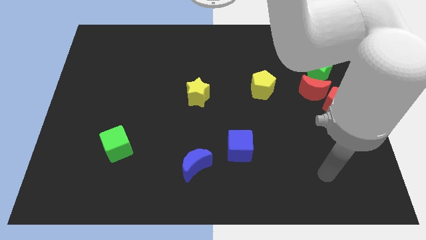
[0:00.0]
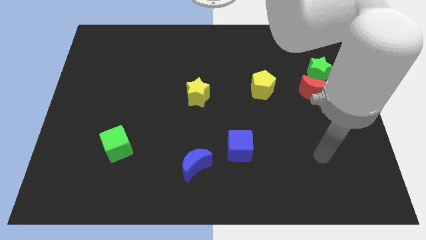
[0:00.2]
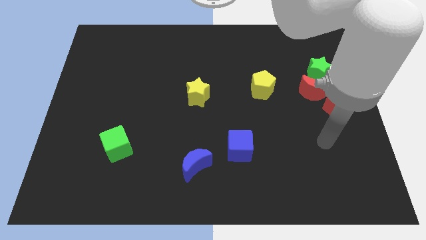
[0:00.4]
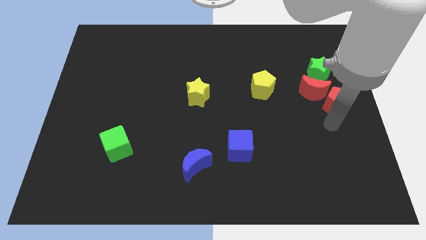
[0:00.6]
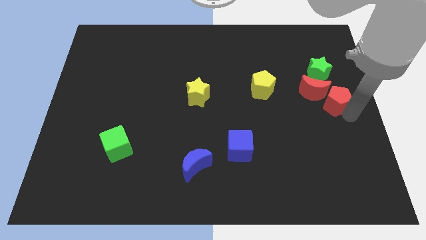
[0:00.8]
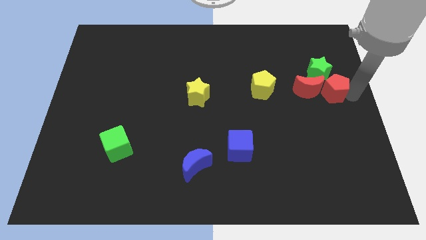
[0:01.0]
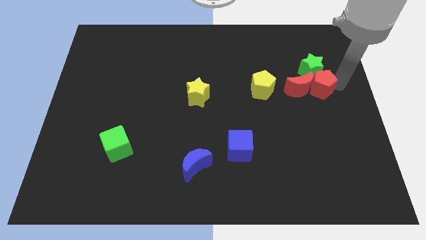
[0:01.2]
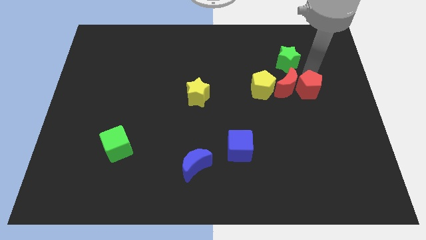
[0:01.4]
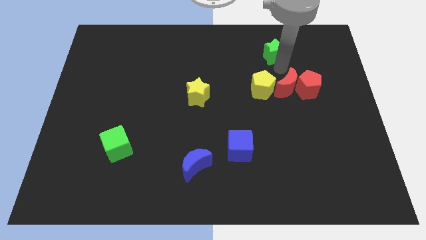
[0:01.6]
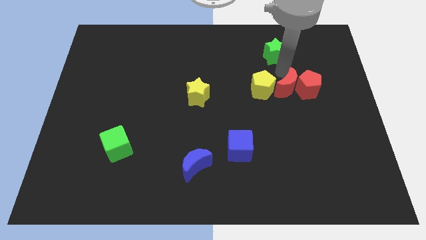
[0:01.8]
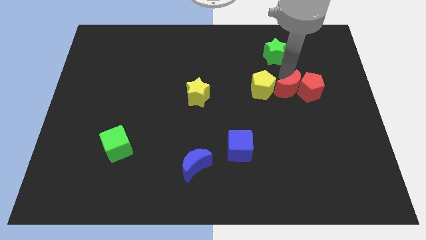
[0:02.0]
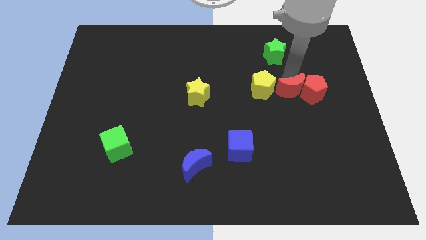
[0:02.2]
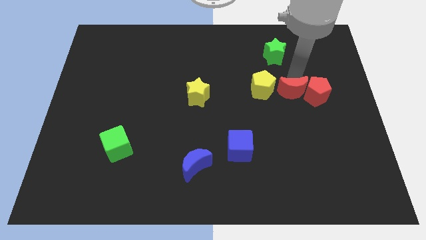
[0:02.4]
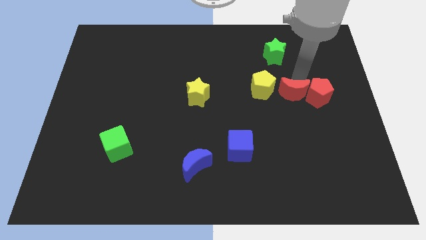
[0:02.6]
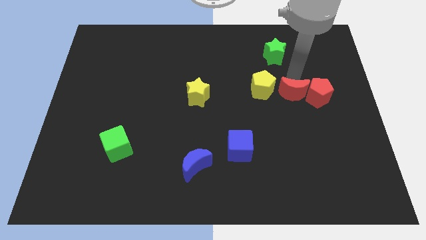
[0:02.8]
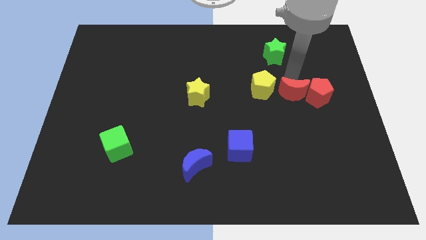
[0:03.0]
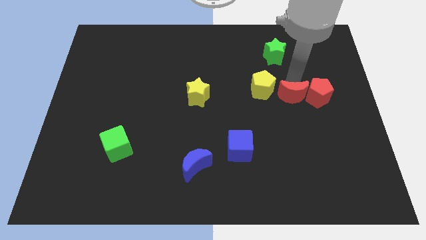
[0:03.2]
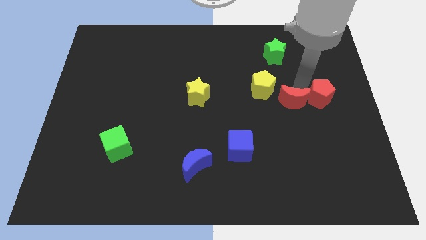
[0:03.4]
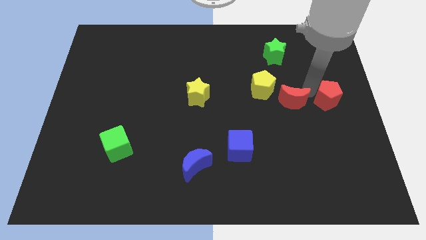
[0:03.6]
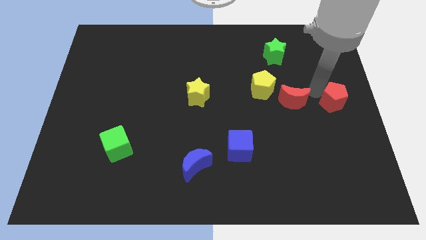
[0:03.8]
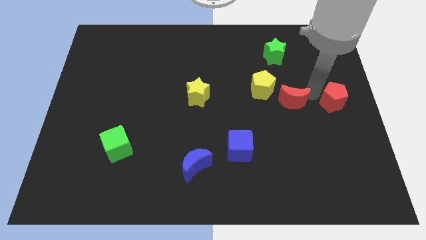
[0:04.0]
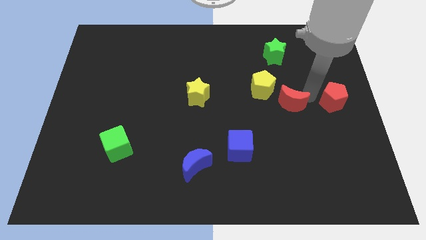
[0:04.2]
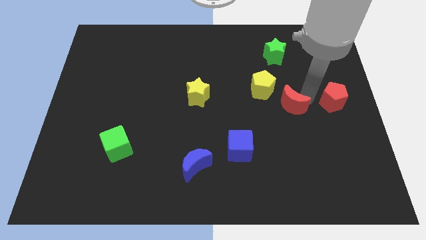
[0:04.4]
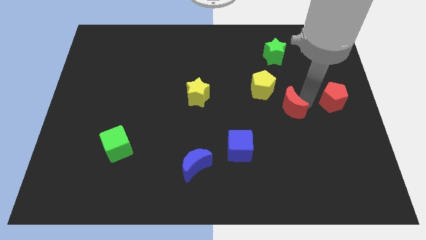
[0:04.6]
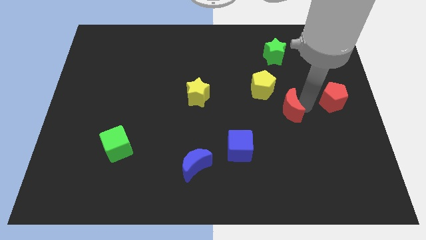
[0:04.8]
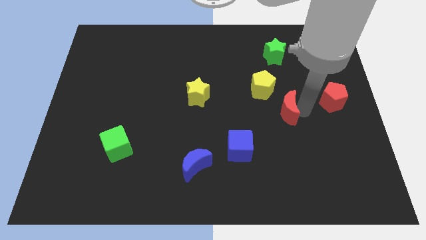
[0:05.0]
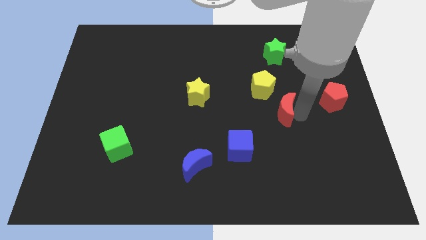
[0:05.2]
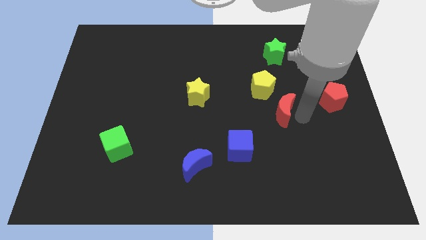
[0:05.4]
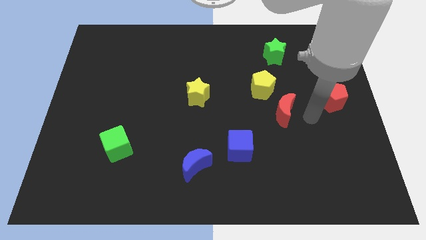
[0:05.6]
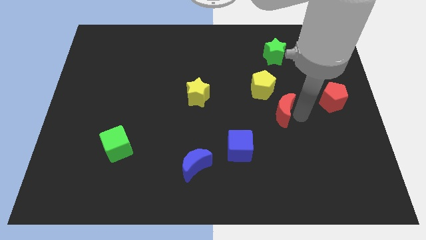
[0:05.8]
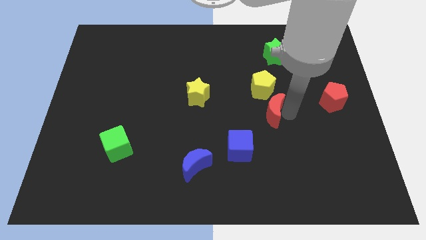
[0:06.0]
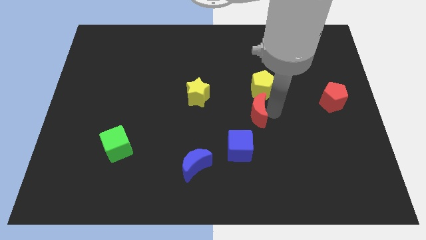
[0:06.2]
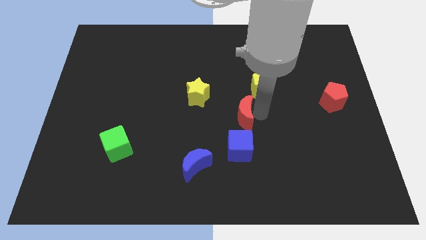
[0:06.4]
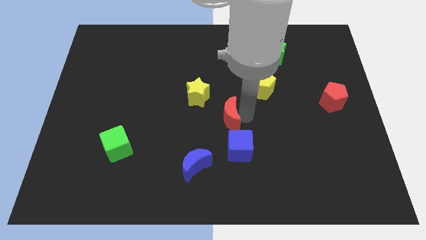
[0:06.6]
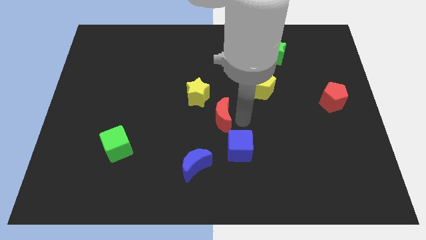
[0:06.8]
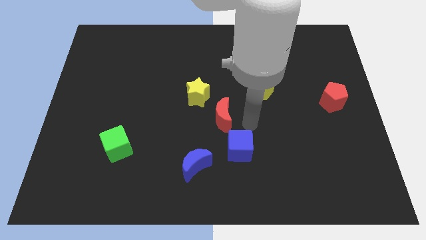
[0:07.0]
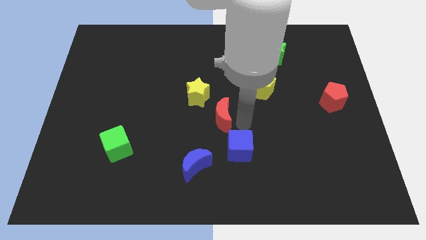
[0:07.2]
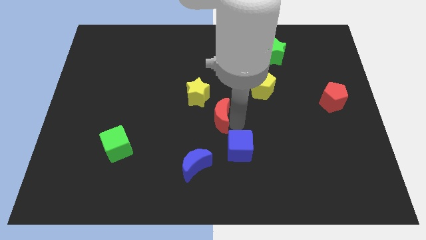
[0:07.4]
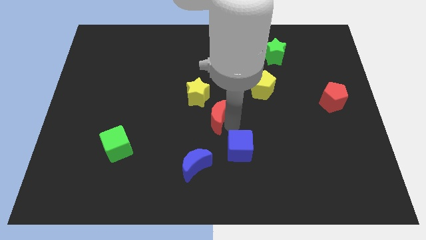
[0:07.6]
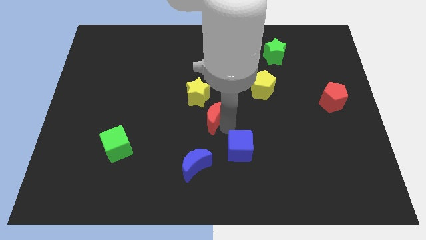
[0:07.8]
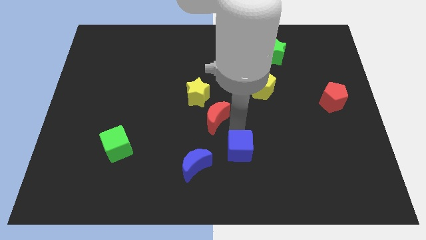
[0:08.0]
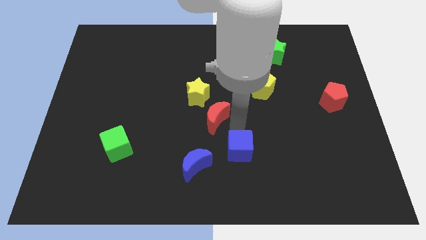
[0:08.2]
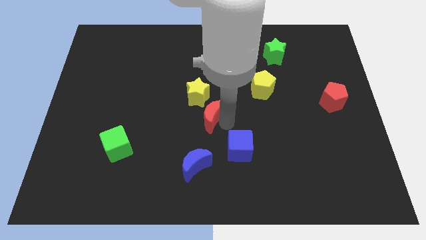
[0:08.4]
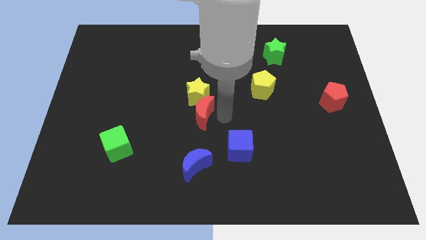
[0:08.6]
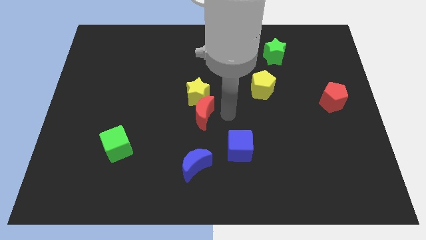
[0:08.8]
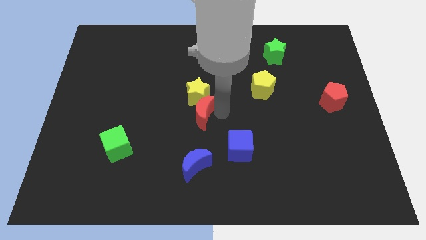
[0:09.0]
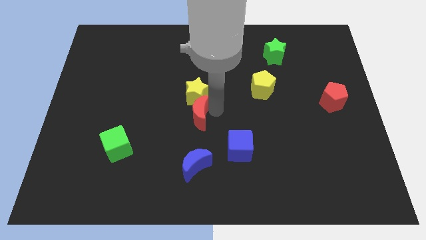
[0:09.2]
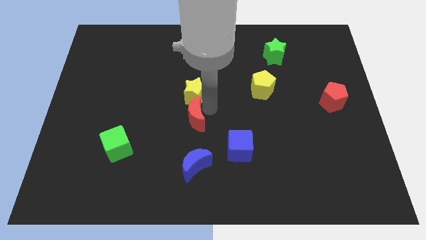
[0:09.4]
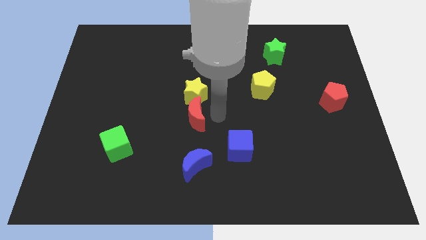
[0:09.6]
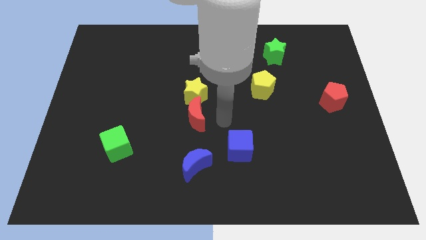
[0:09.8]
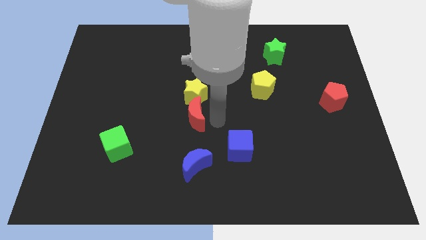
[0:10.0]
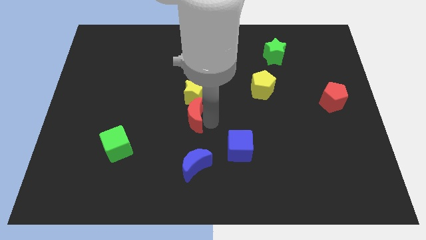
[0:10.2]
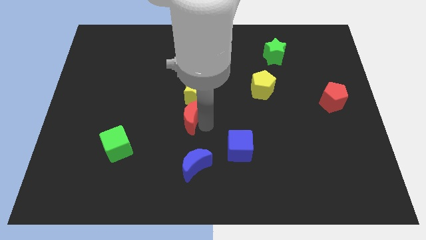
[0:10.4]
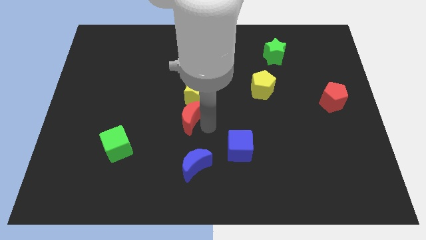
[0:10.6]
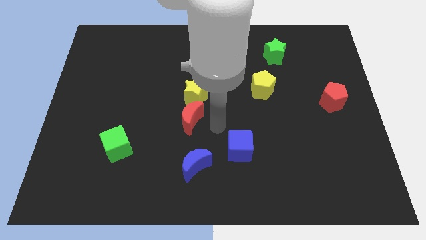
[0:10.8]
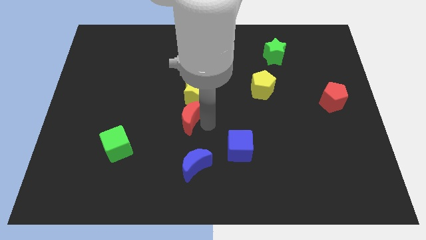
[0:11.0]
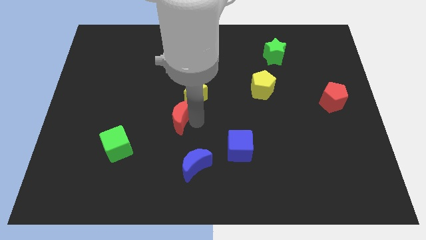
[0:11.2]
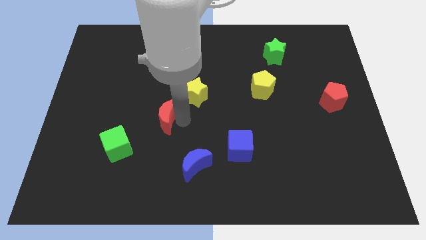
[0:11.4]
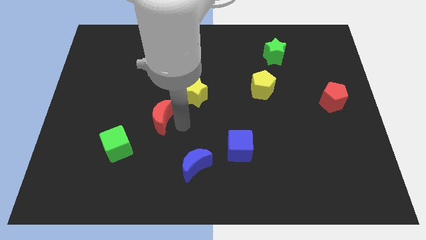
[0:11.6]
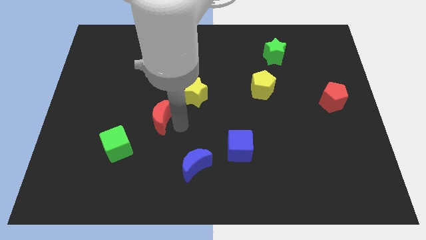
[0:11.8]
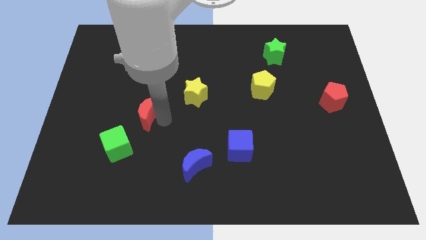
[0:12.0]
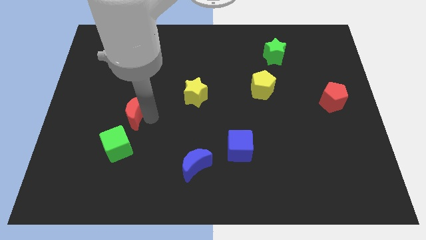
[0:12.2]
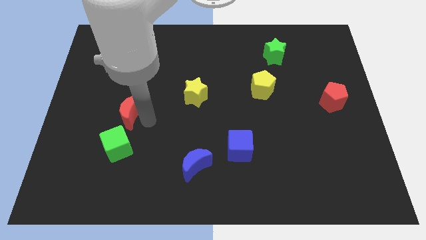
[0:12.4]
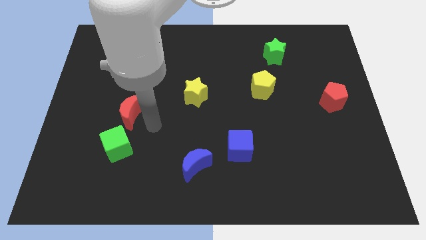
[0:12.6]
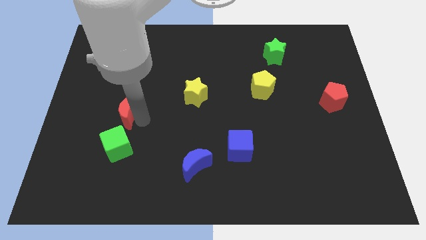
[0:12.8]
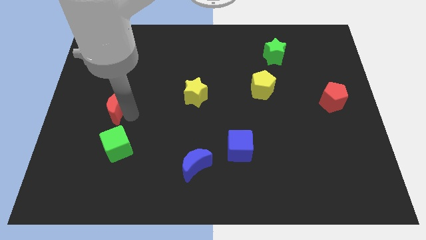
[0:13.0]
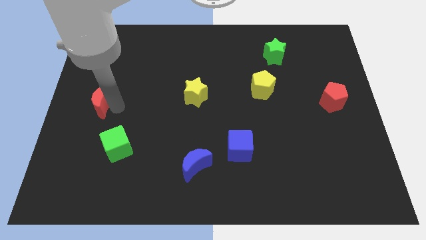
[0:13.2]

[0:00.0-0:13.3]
slide the red moon to the center left
